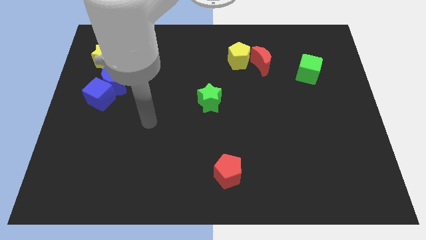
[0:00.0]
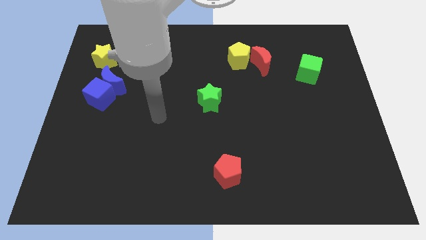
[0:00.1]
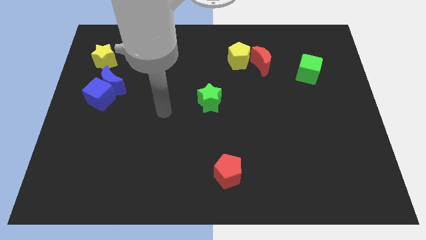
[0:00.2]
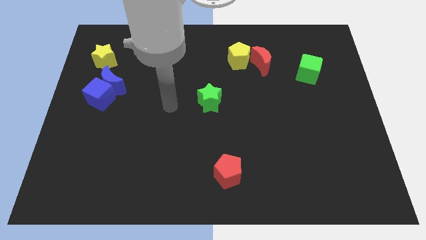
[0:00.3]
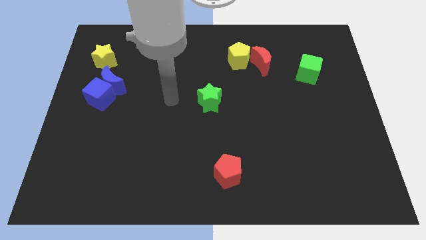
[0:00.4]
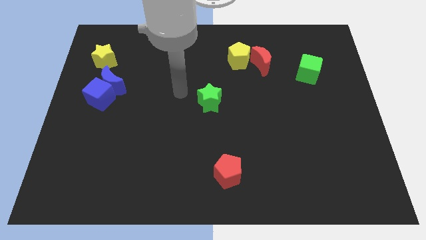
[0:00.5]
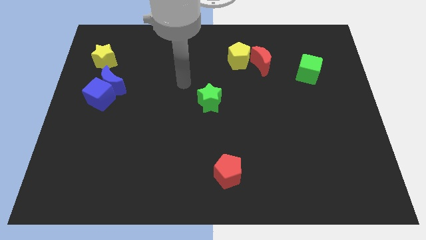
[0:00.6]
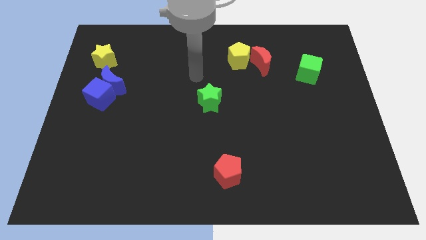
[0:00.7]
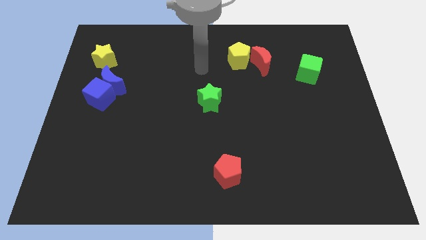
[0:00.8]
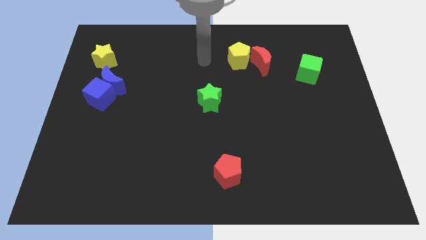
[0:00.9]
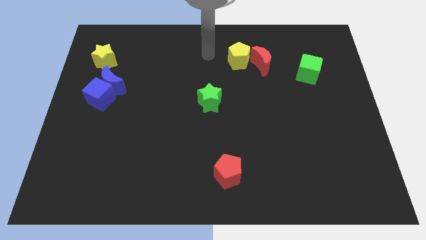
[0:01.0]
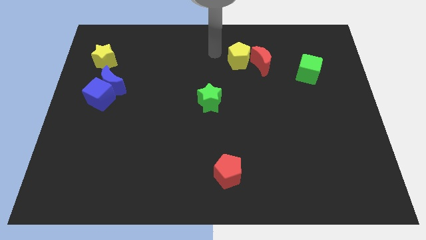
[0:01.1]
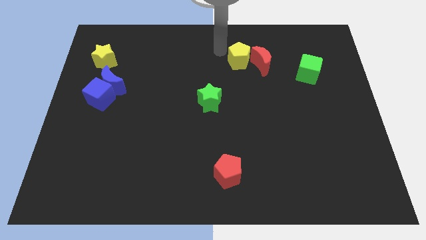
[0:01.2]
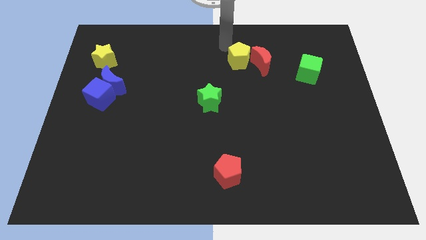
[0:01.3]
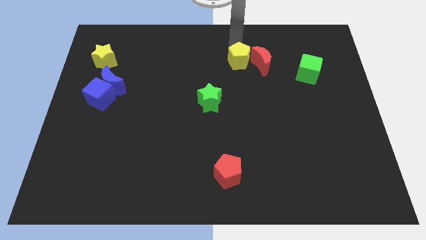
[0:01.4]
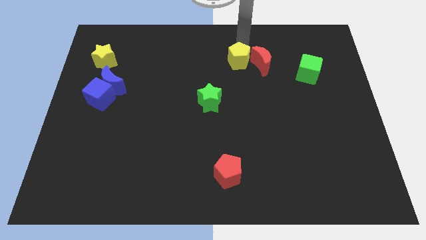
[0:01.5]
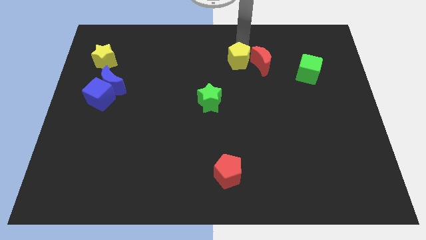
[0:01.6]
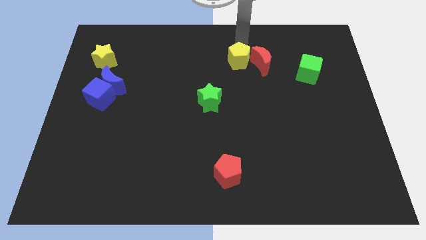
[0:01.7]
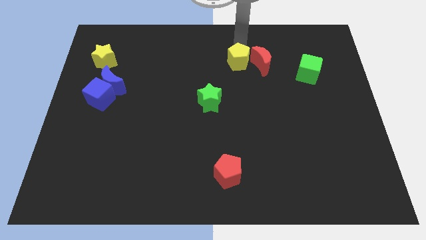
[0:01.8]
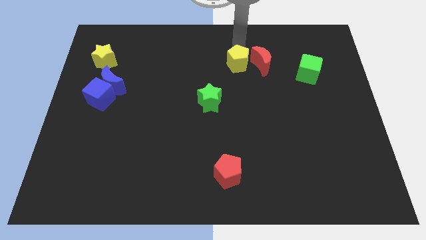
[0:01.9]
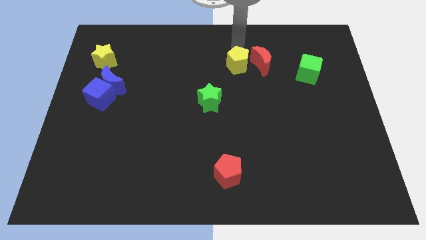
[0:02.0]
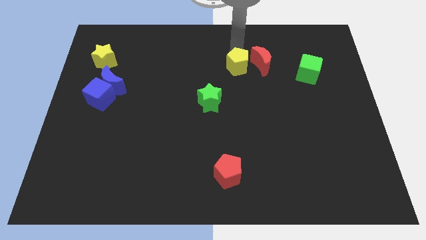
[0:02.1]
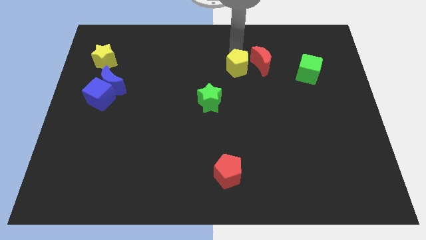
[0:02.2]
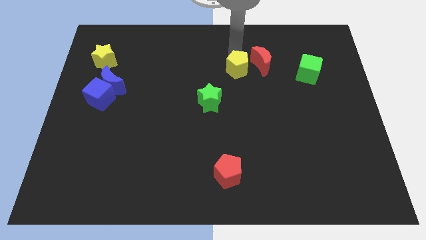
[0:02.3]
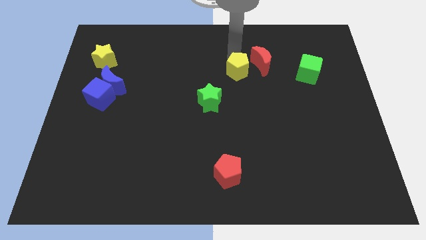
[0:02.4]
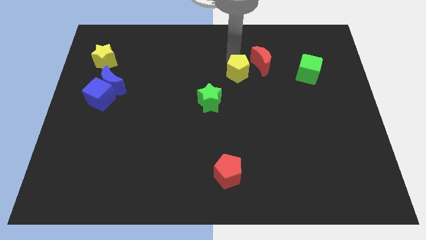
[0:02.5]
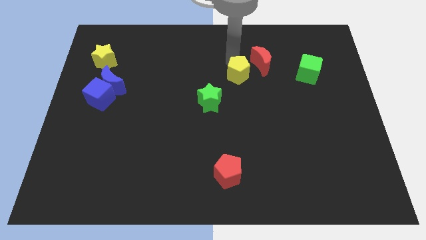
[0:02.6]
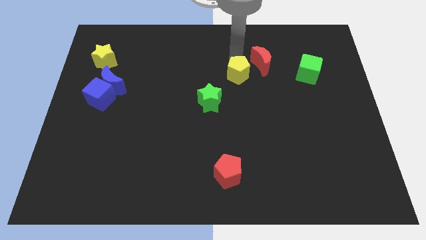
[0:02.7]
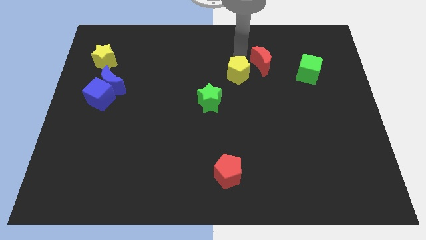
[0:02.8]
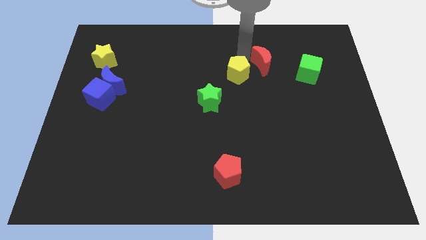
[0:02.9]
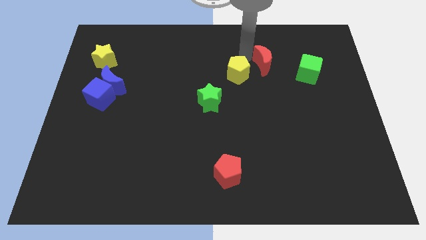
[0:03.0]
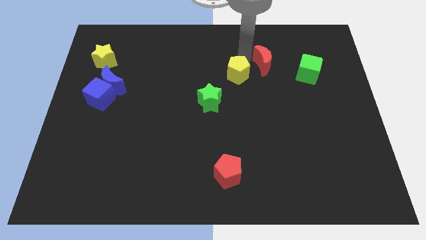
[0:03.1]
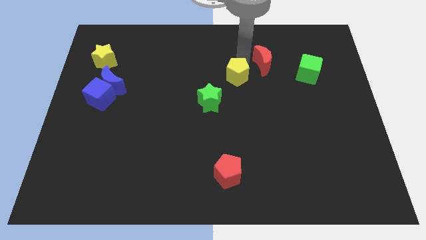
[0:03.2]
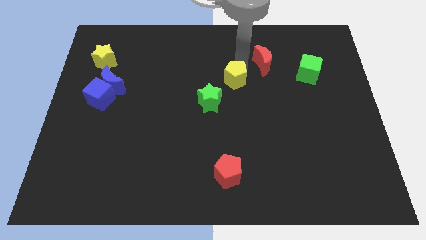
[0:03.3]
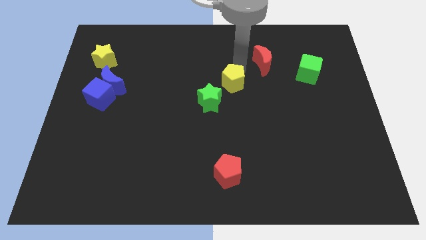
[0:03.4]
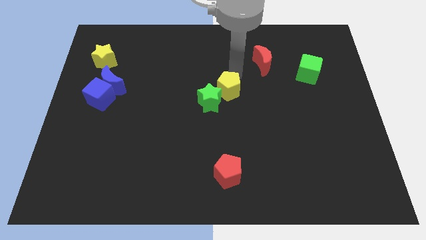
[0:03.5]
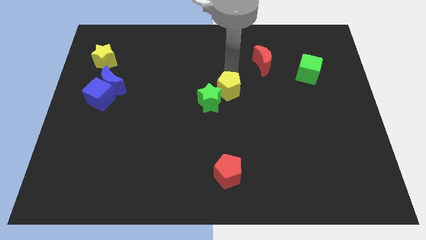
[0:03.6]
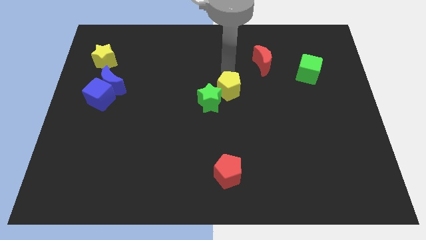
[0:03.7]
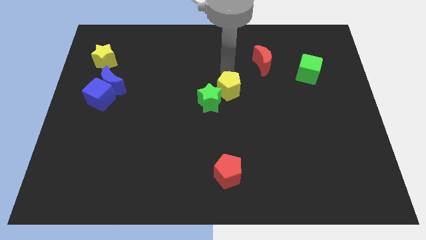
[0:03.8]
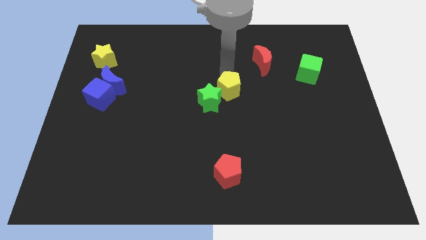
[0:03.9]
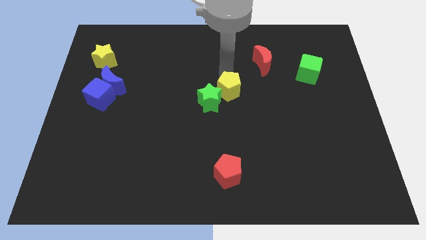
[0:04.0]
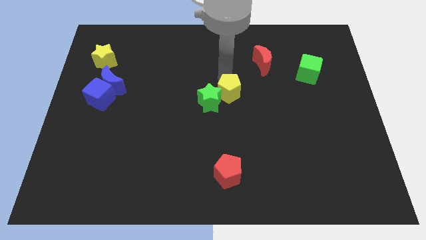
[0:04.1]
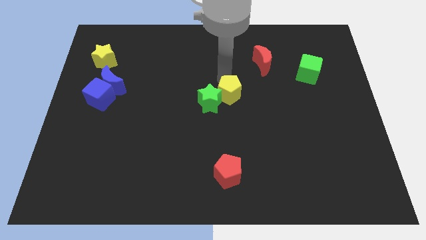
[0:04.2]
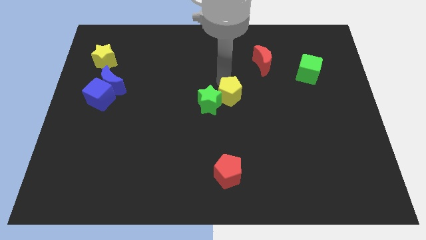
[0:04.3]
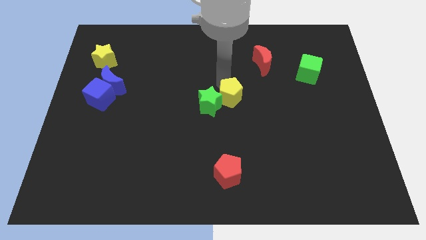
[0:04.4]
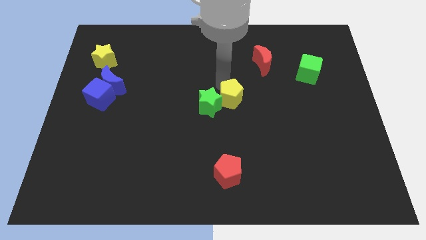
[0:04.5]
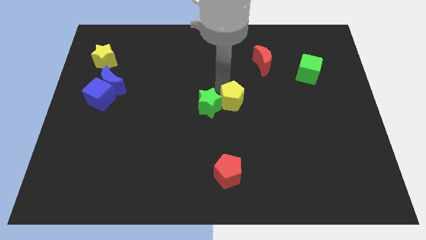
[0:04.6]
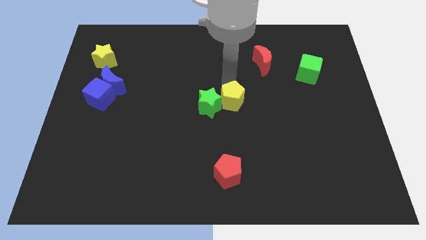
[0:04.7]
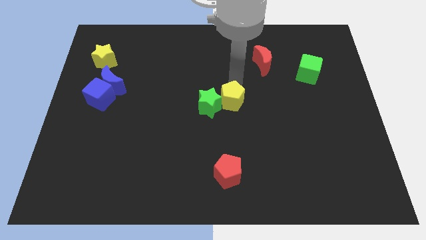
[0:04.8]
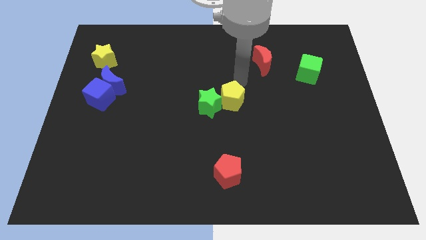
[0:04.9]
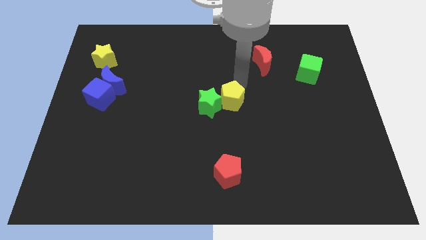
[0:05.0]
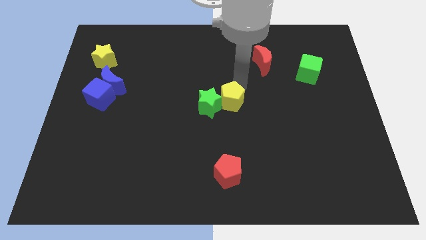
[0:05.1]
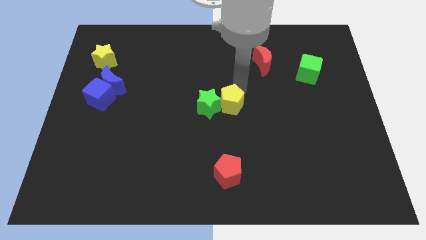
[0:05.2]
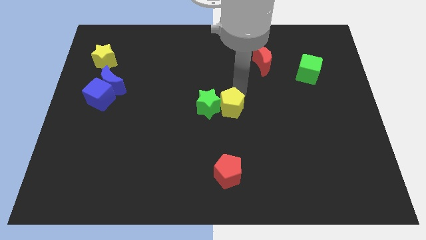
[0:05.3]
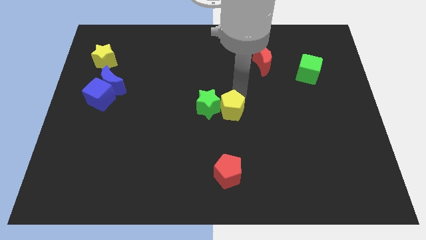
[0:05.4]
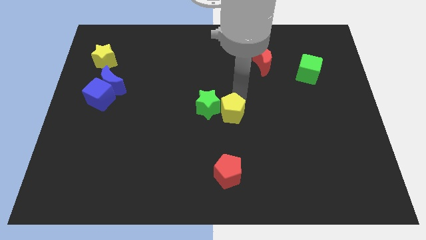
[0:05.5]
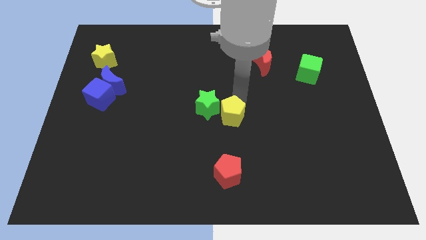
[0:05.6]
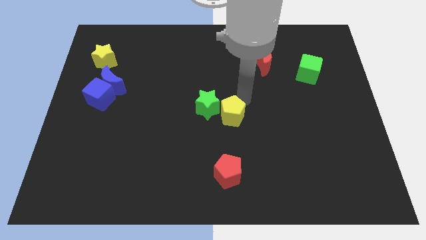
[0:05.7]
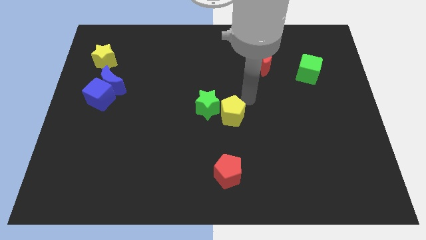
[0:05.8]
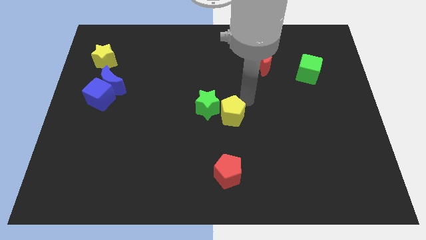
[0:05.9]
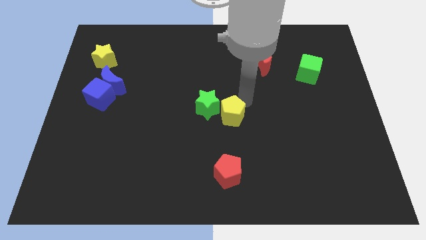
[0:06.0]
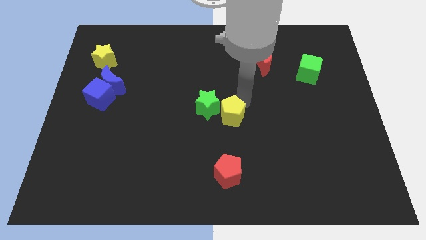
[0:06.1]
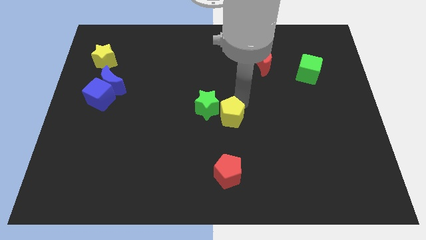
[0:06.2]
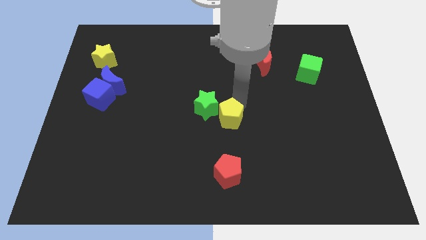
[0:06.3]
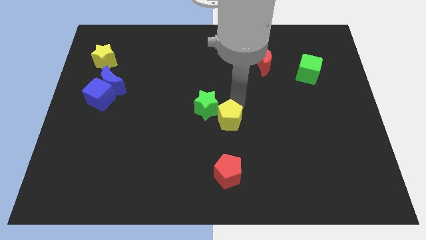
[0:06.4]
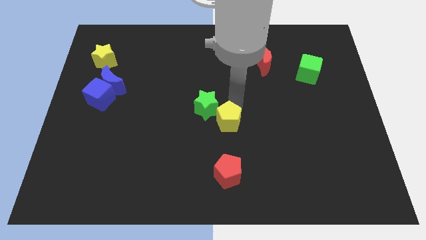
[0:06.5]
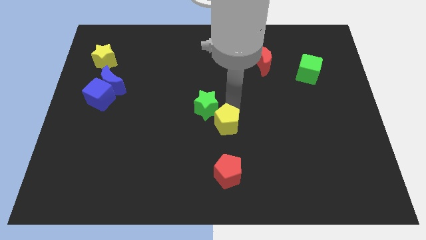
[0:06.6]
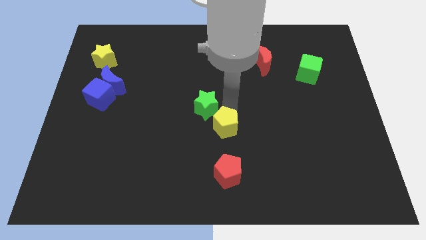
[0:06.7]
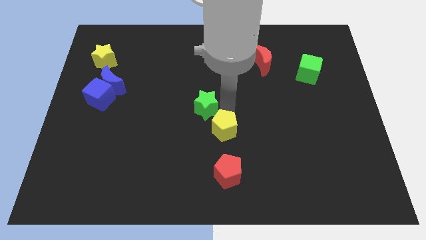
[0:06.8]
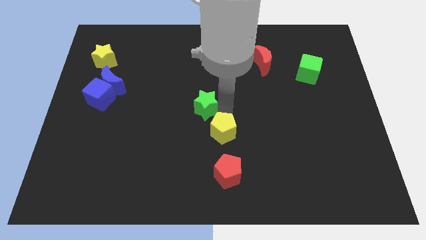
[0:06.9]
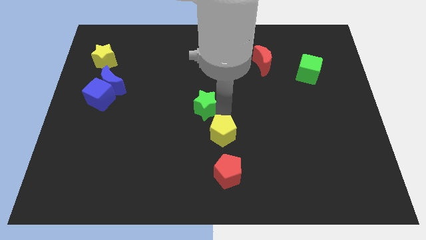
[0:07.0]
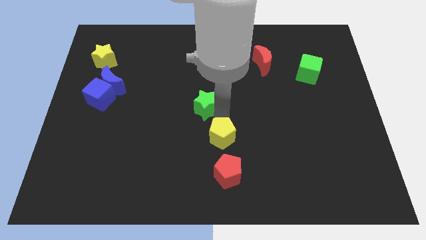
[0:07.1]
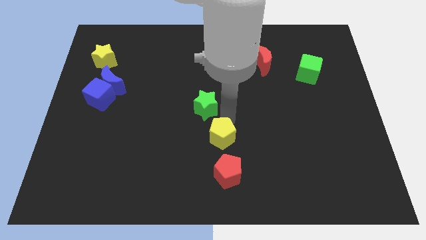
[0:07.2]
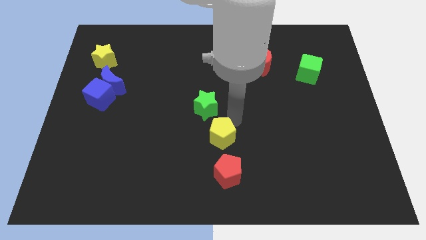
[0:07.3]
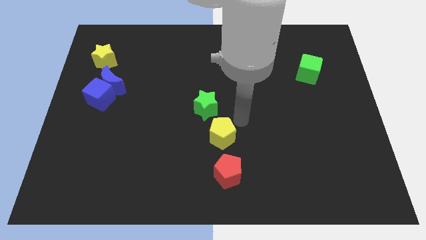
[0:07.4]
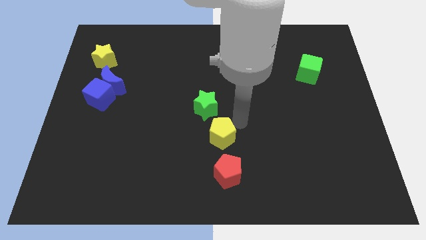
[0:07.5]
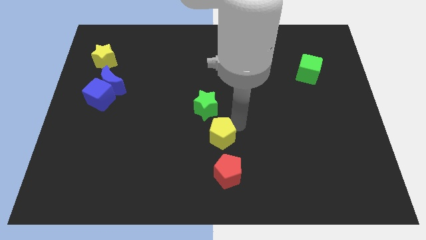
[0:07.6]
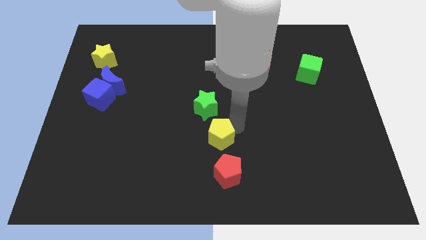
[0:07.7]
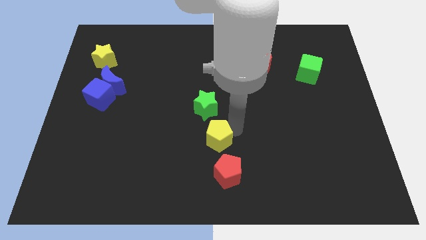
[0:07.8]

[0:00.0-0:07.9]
move the yellow pentagon to the top left of the red pentagon
